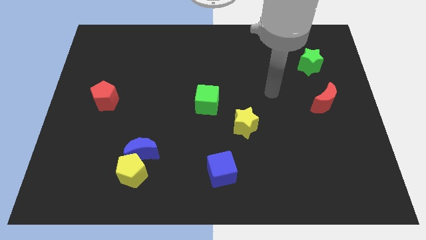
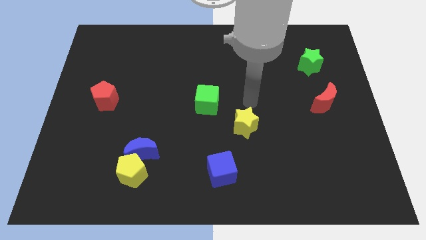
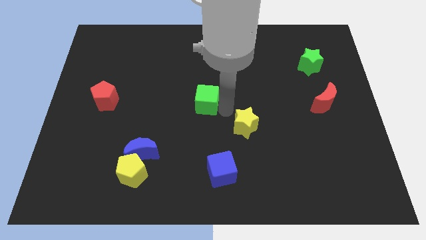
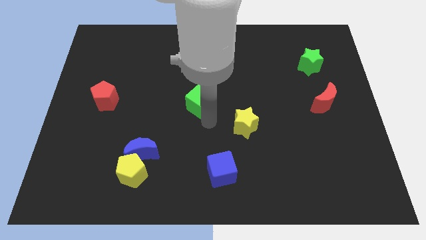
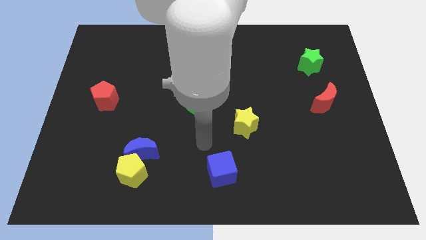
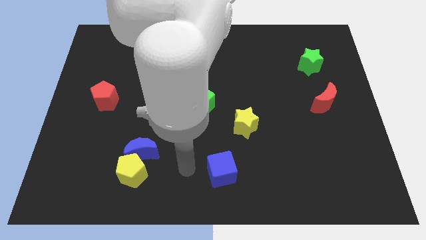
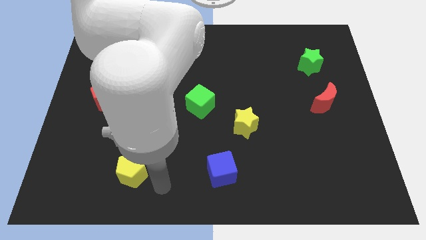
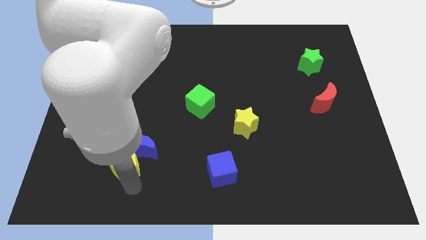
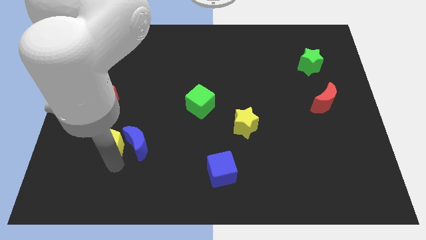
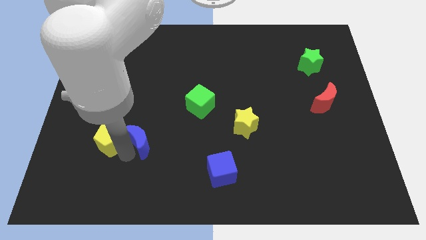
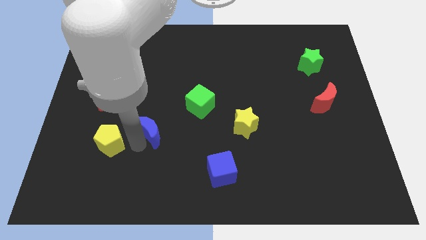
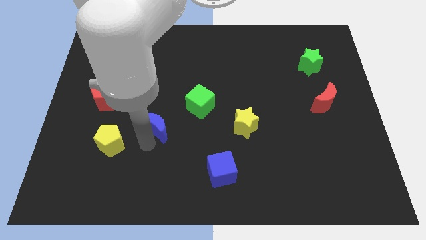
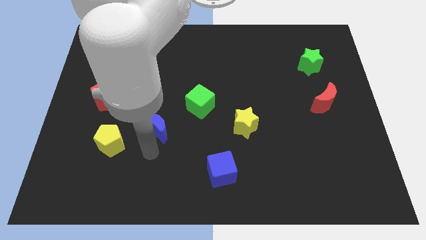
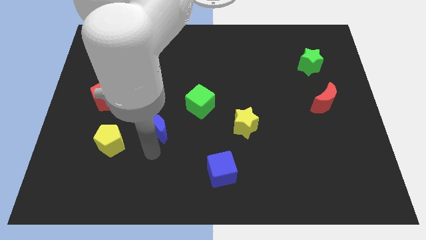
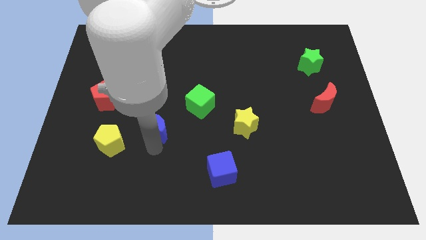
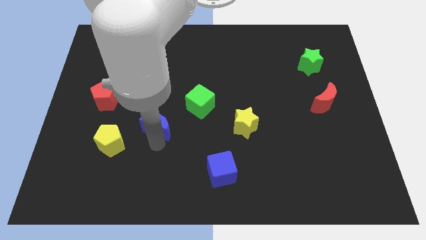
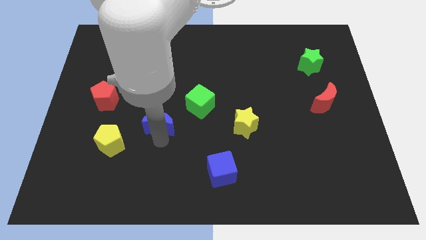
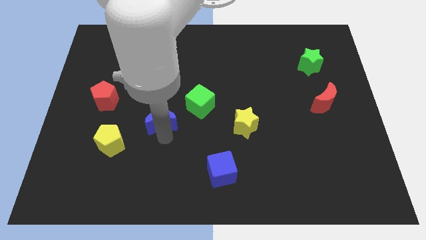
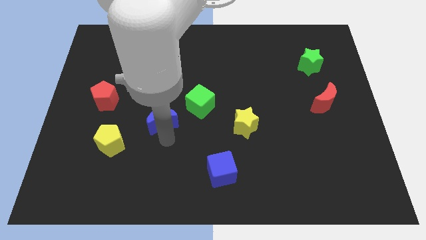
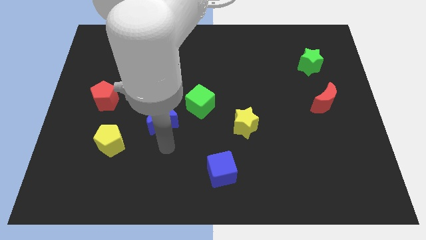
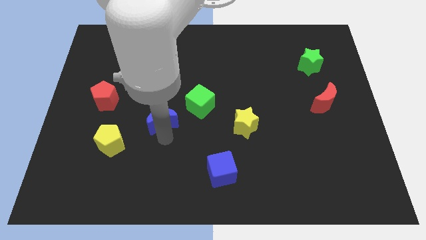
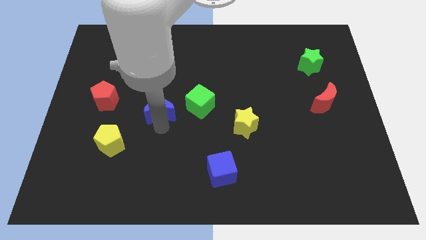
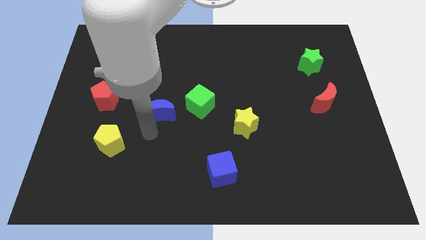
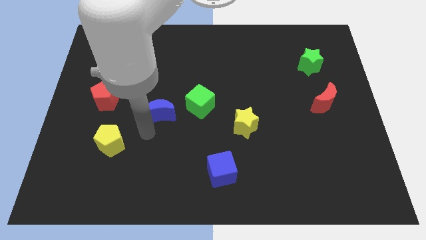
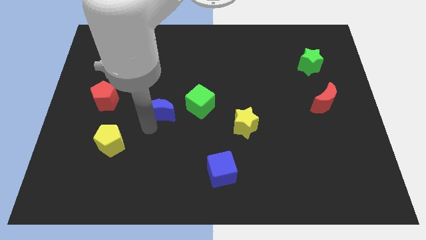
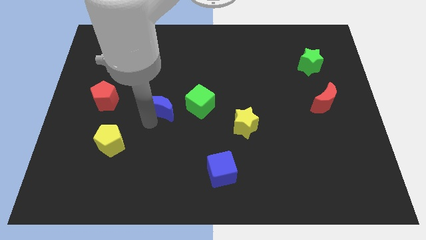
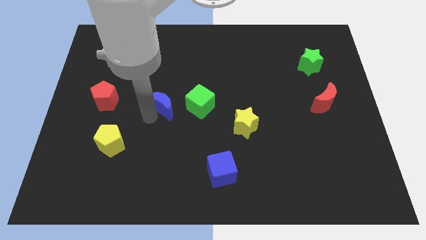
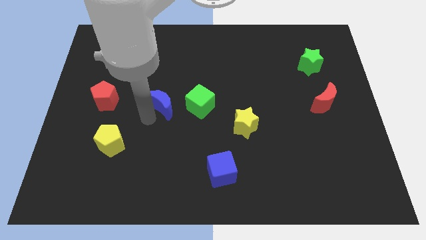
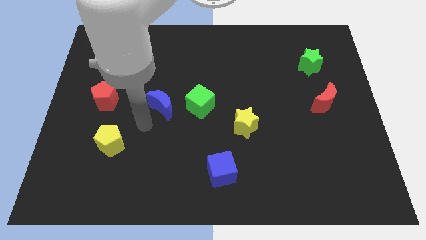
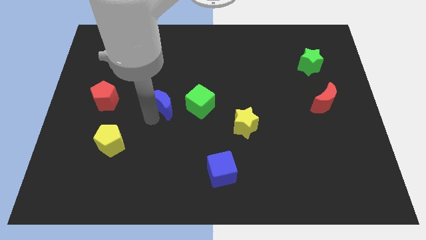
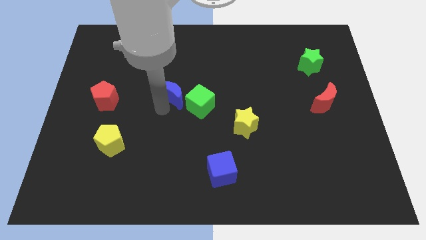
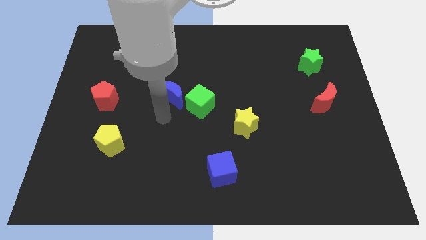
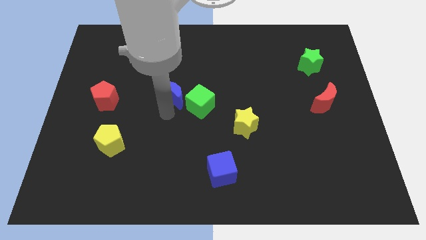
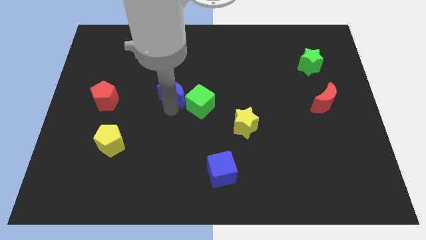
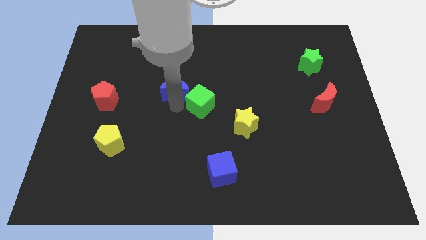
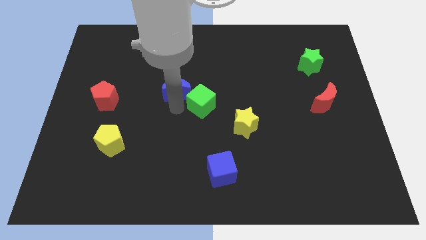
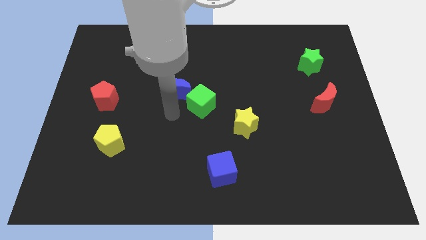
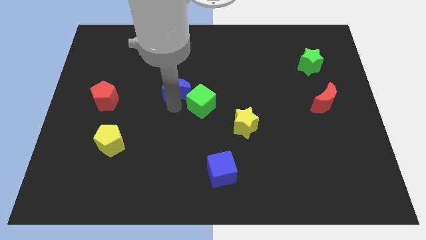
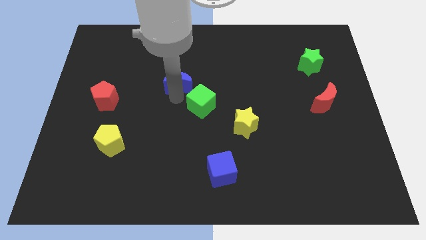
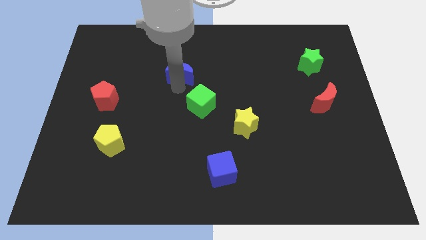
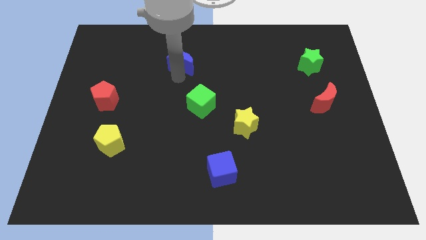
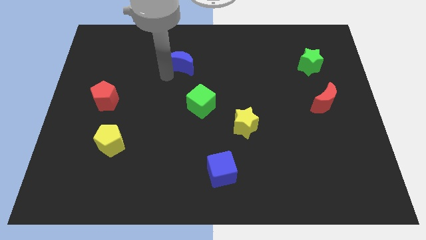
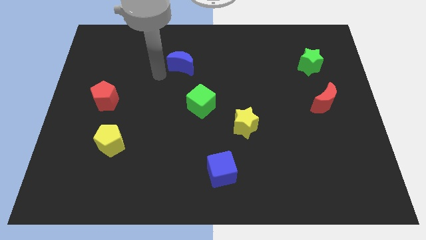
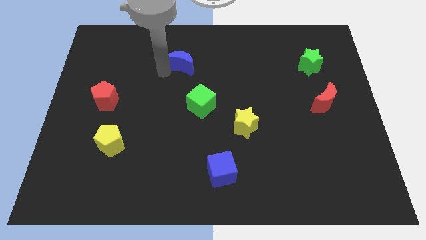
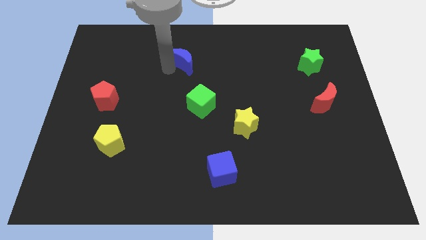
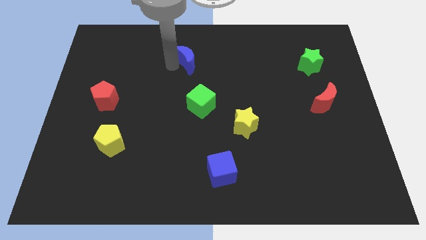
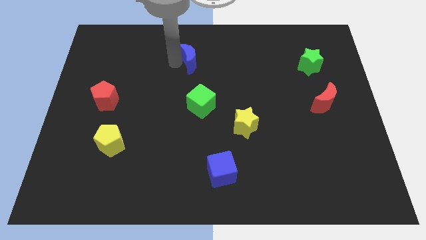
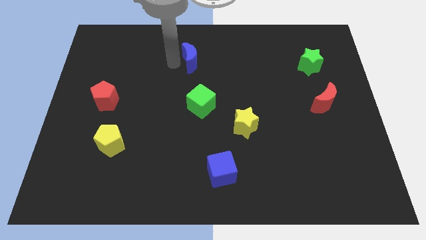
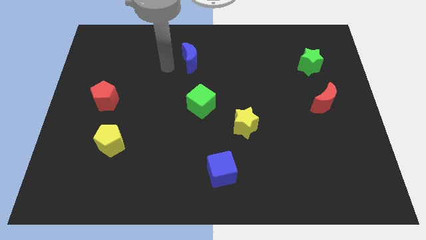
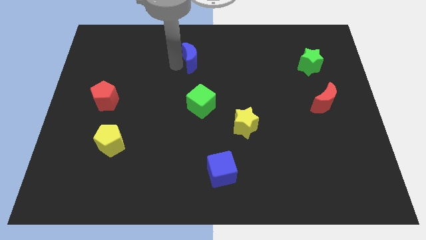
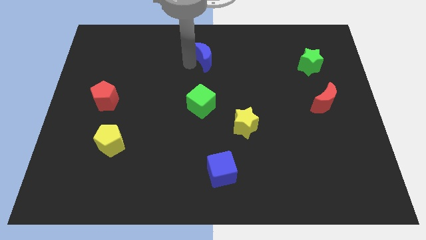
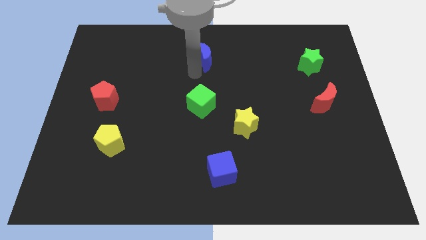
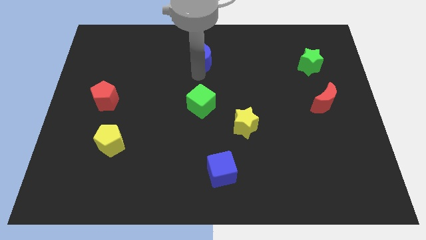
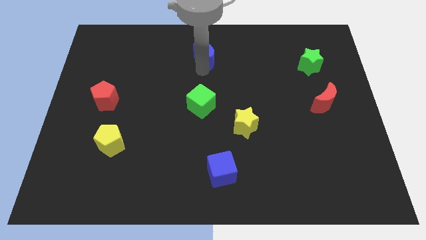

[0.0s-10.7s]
slide the blue moon to the top

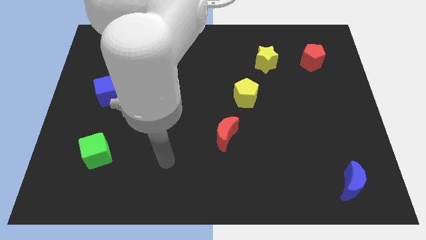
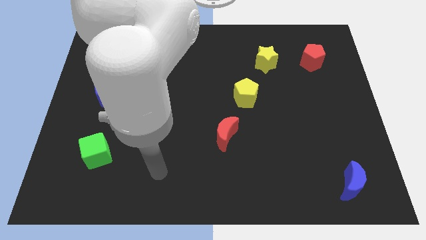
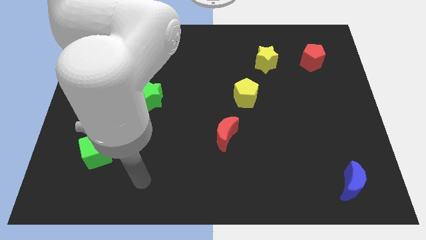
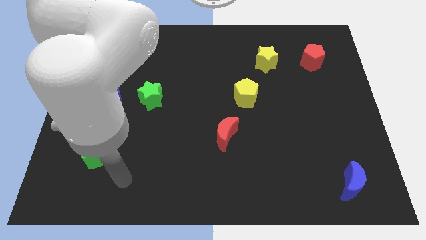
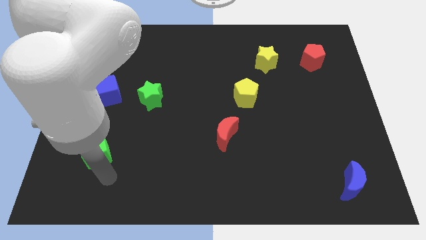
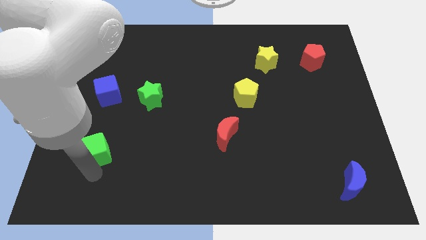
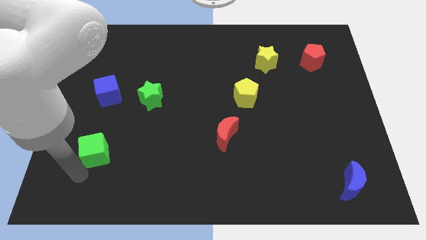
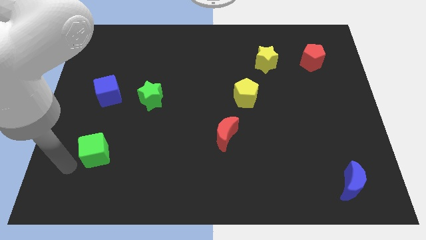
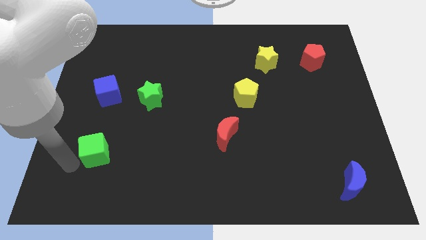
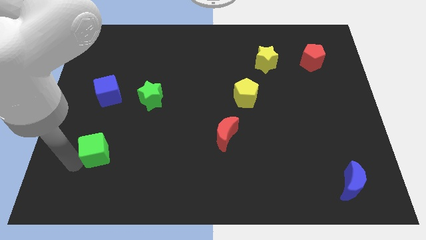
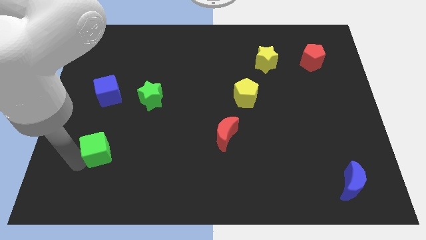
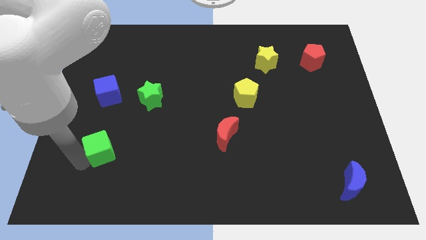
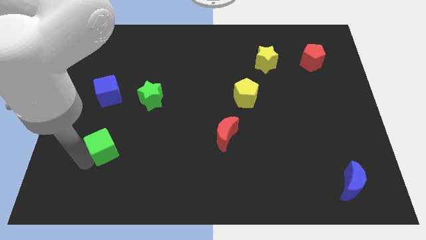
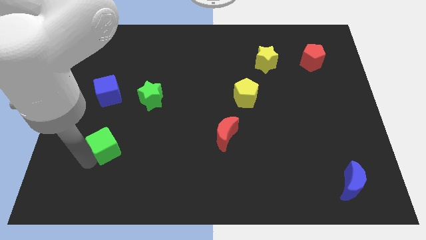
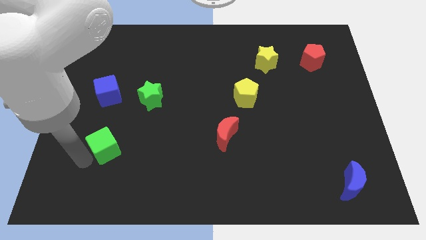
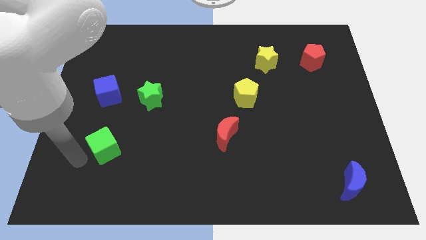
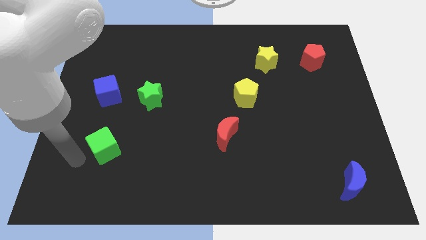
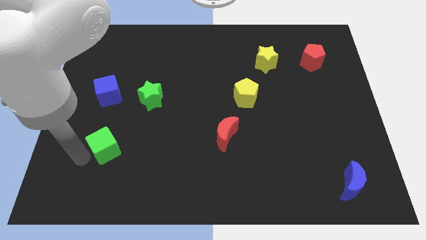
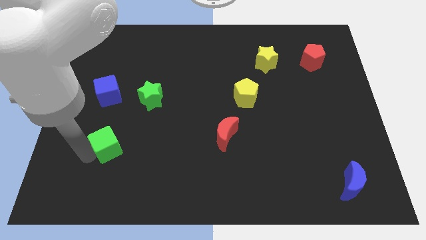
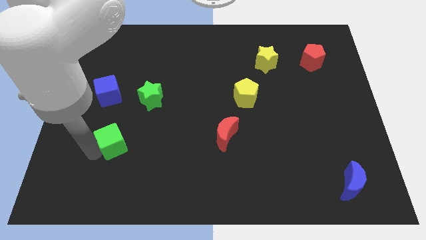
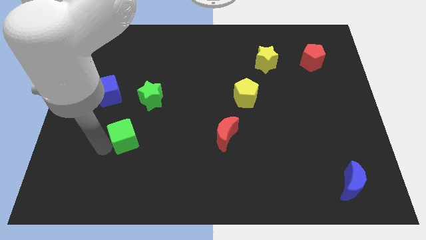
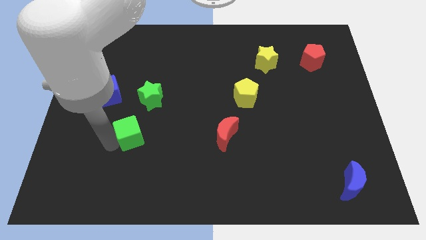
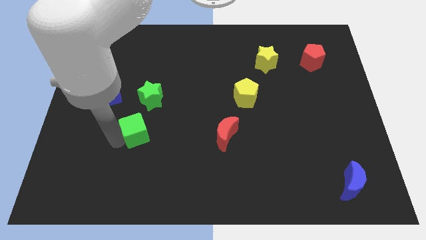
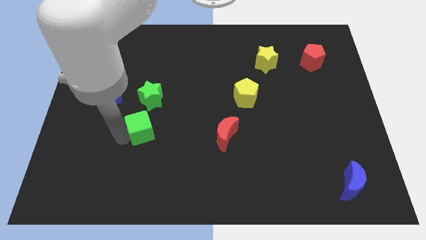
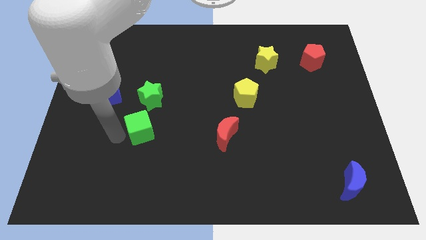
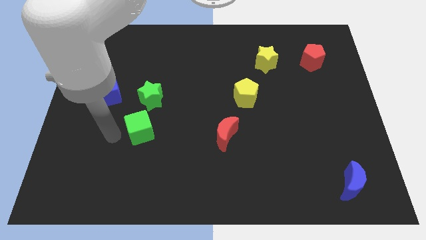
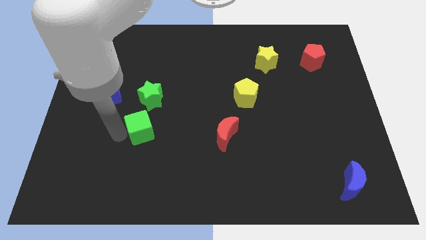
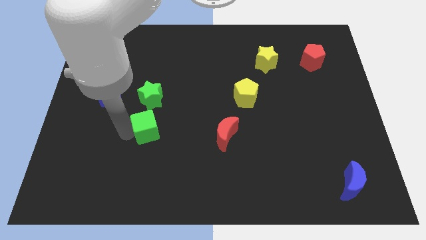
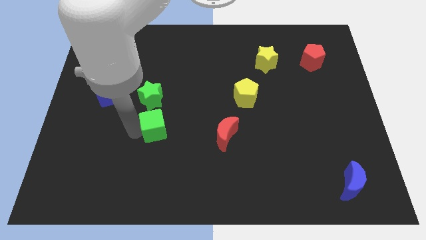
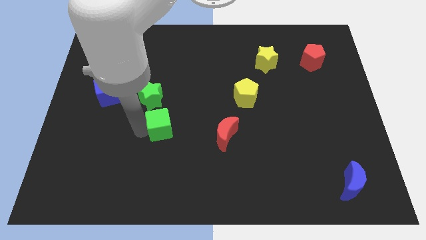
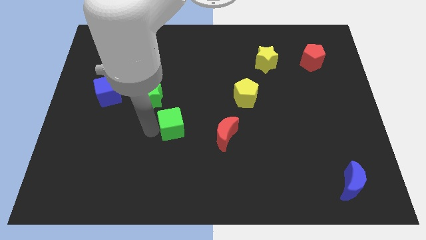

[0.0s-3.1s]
slide the green cube to the middle
